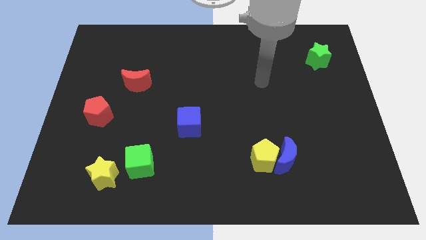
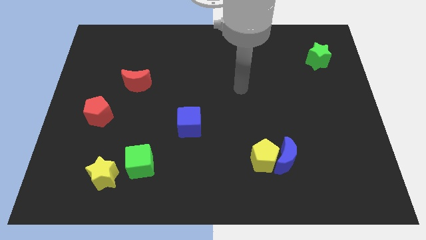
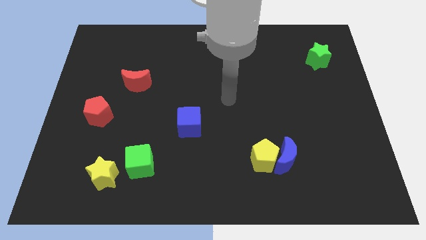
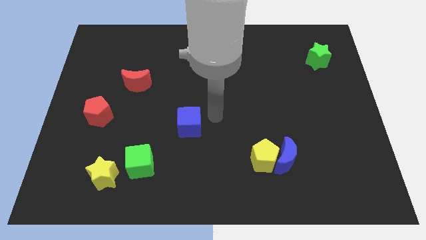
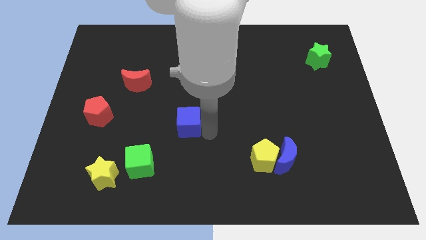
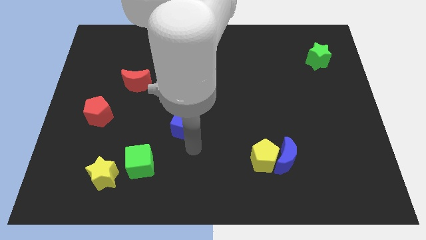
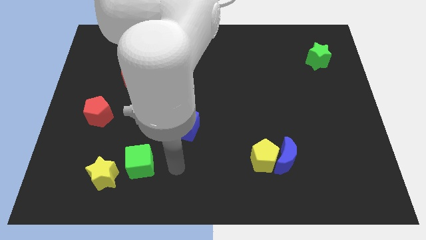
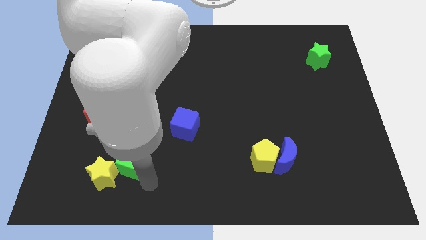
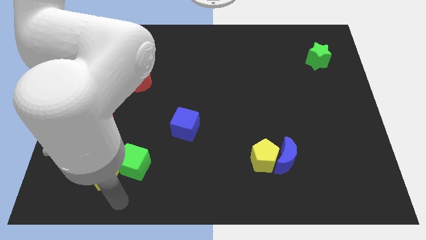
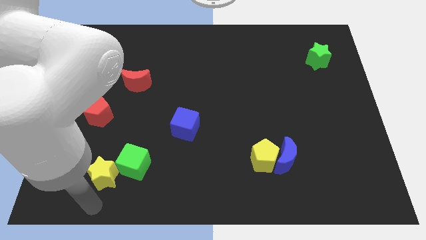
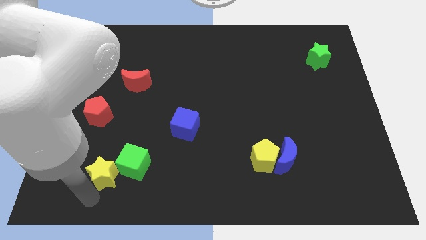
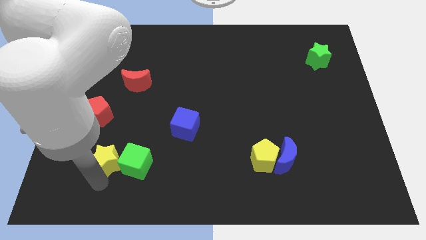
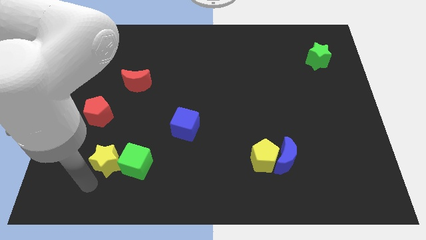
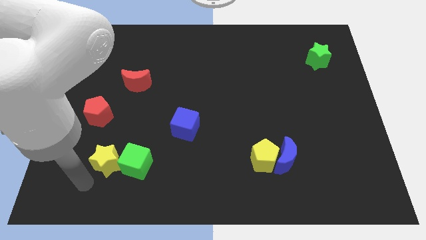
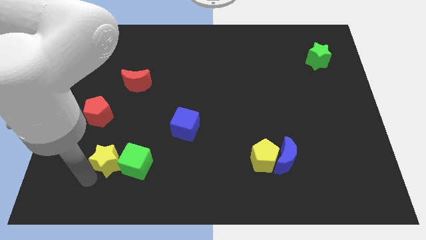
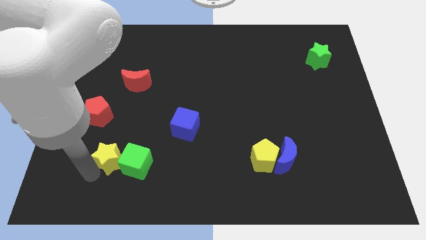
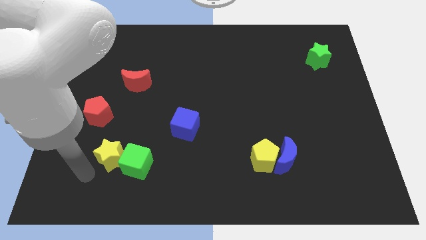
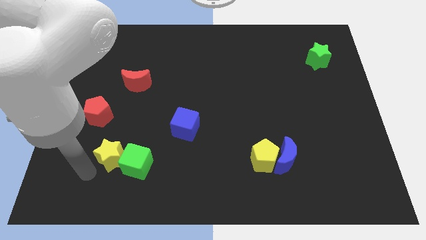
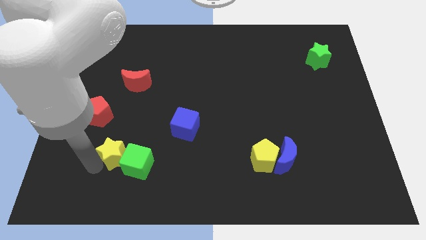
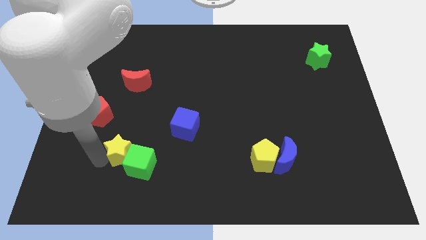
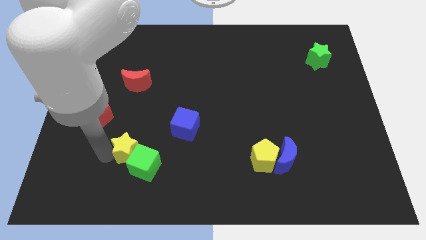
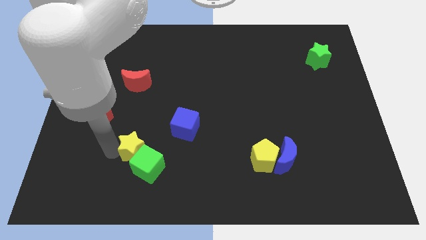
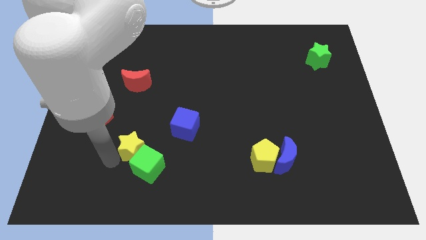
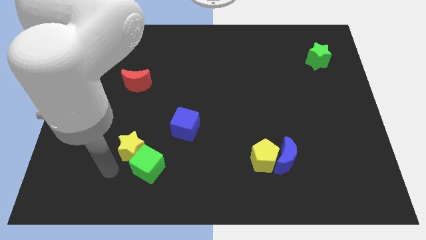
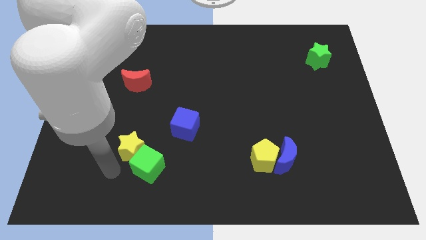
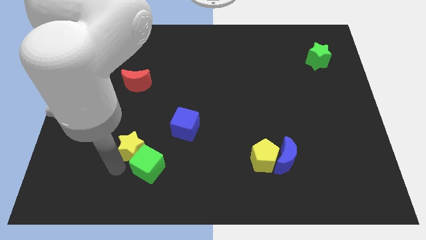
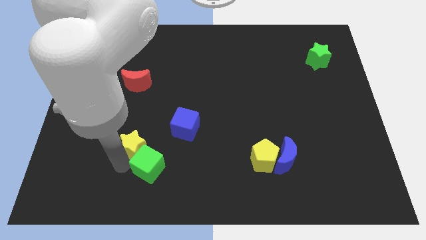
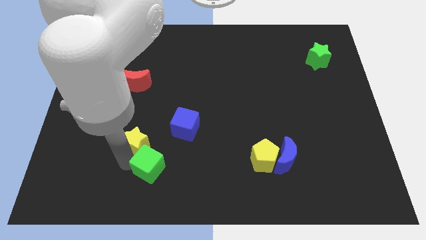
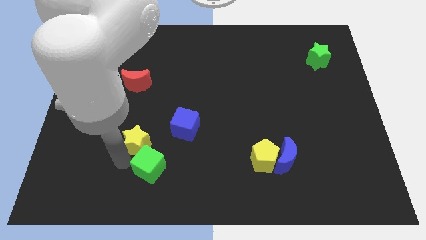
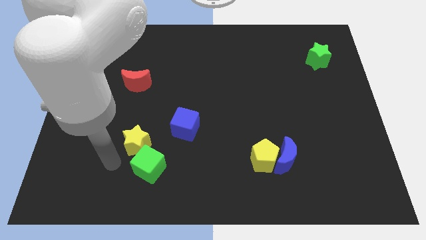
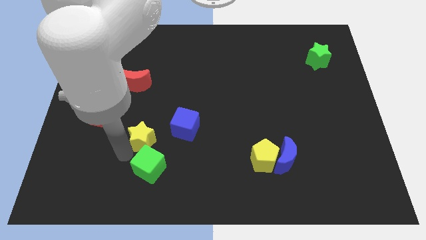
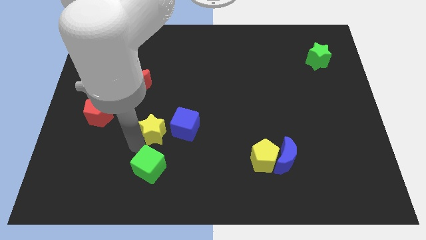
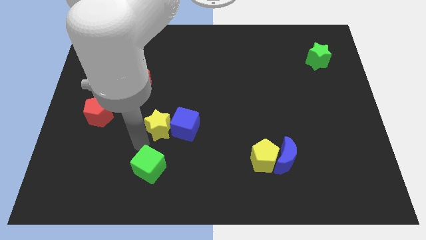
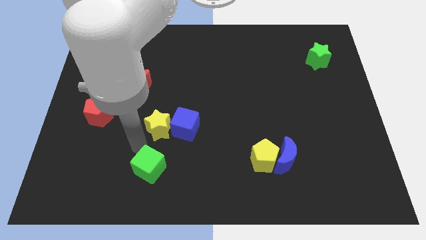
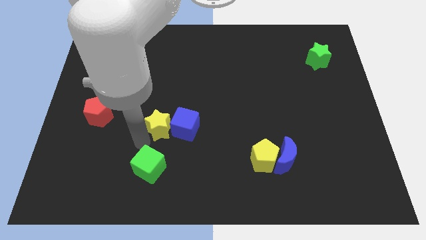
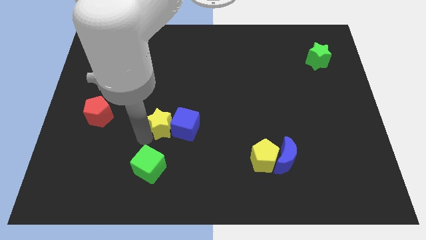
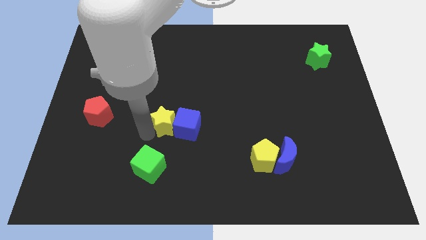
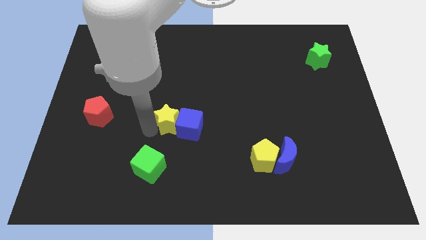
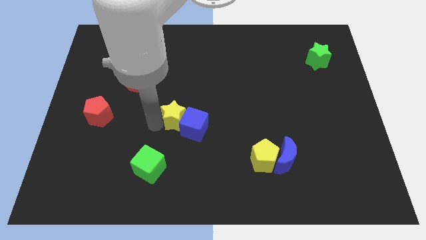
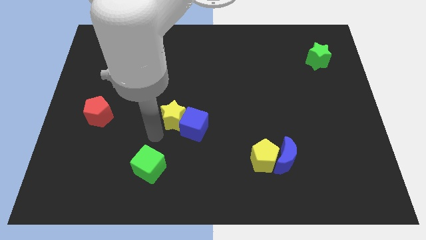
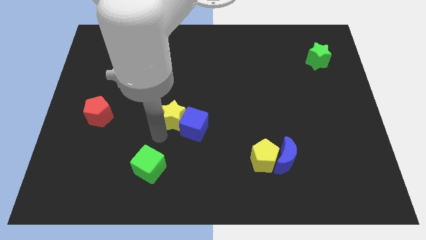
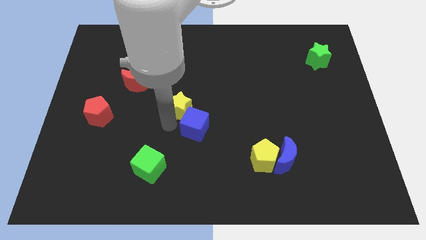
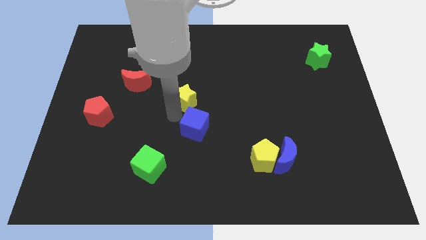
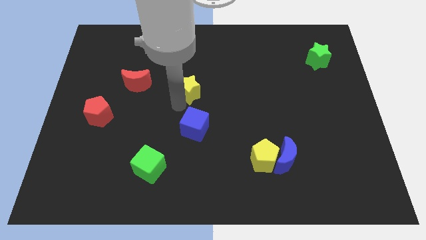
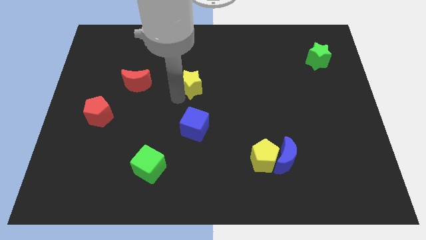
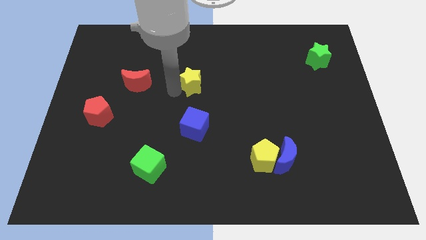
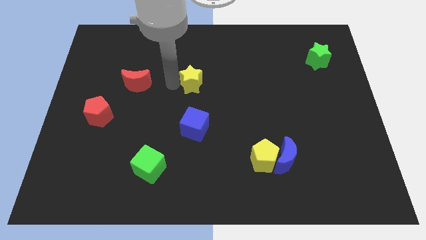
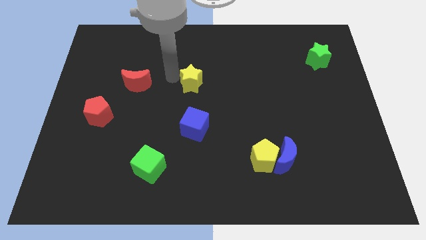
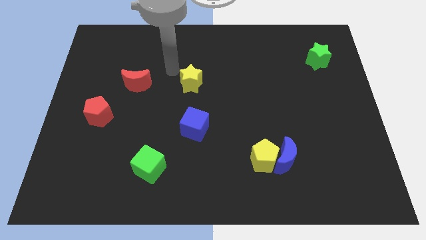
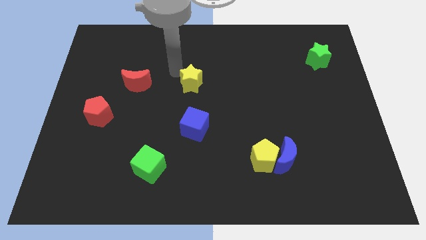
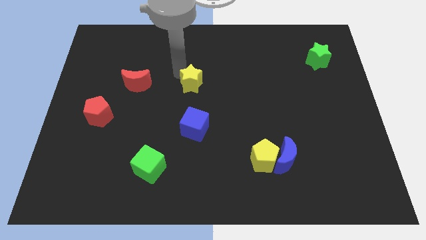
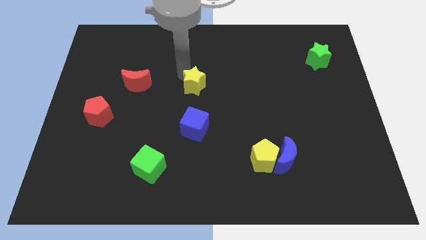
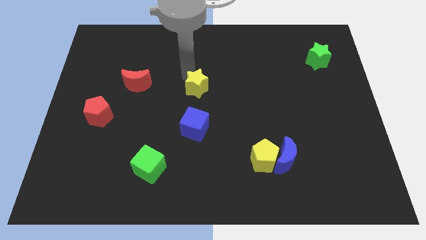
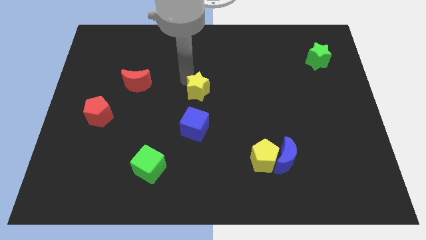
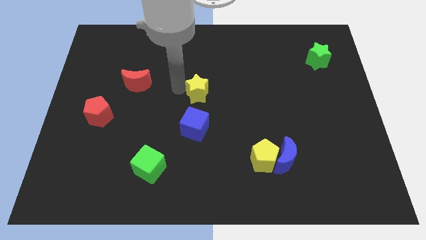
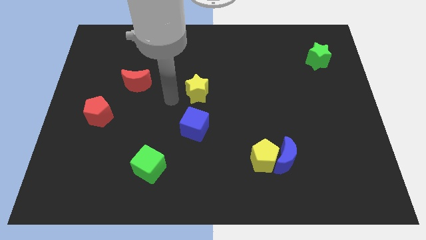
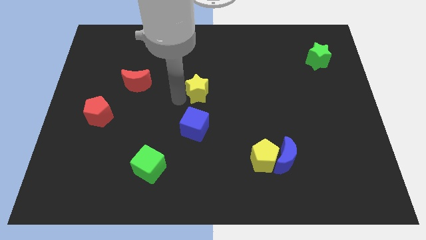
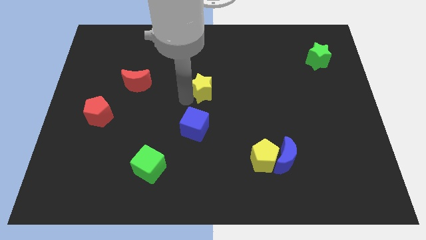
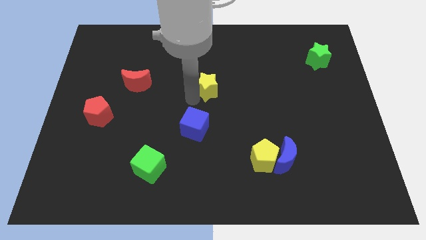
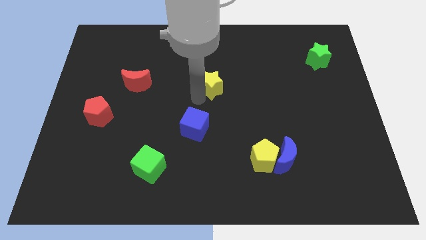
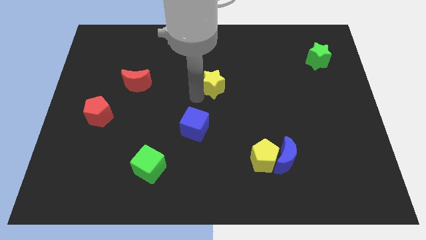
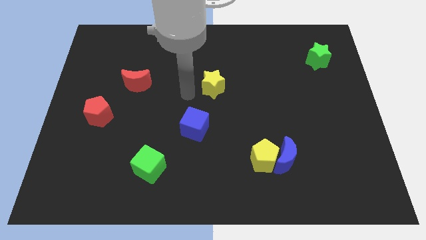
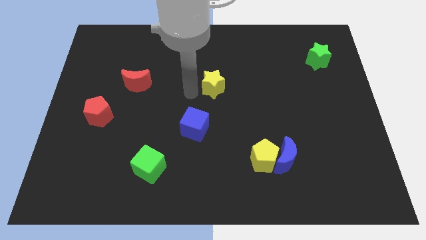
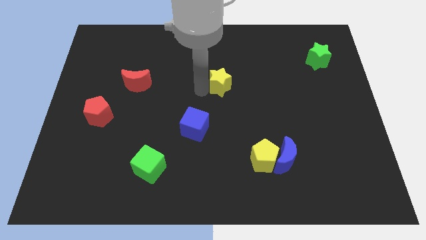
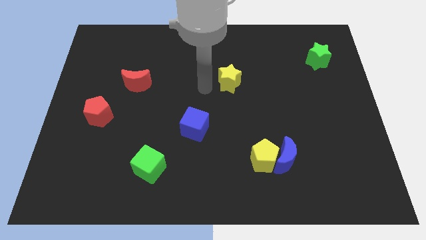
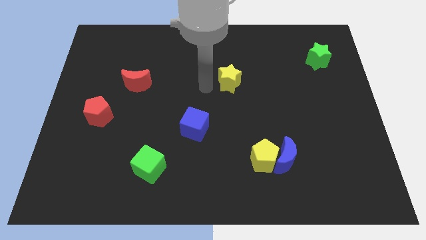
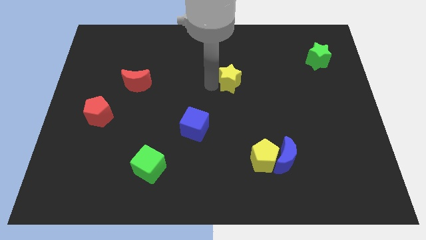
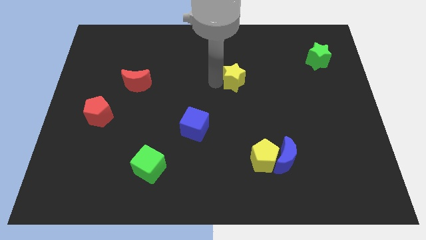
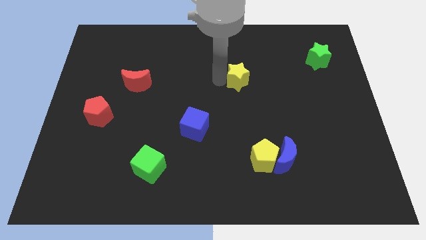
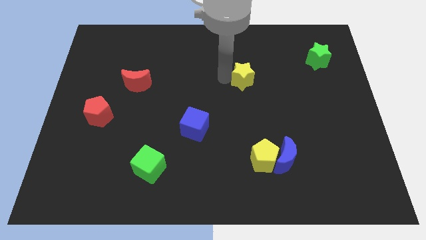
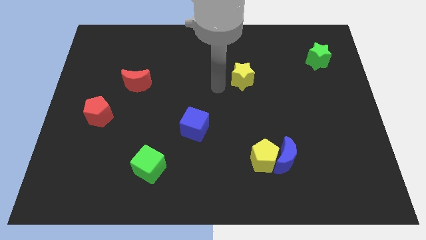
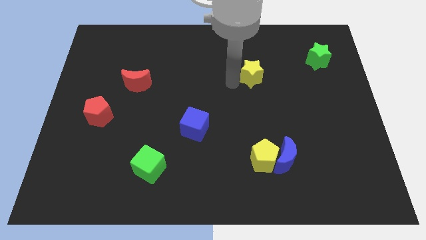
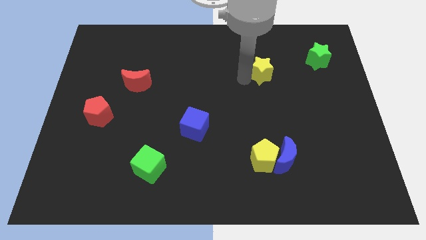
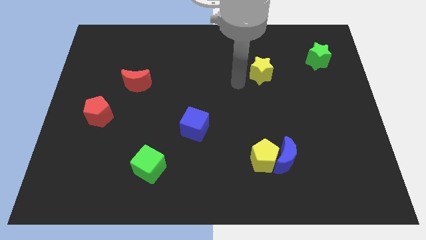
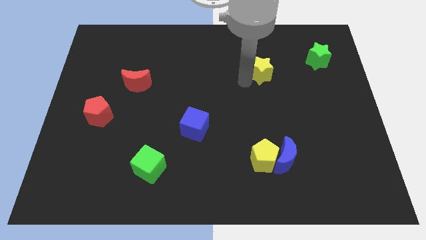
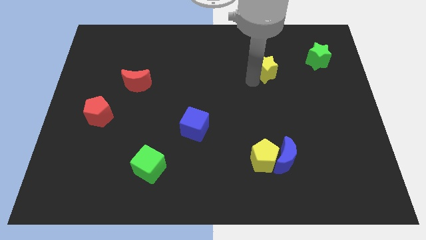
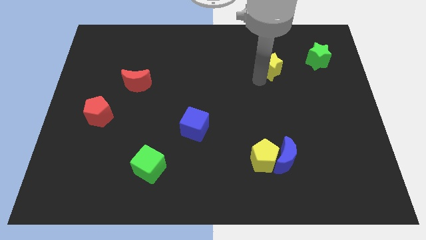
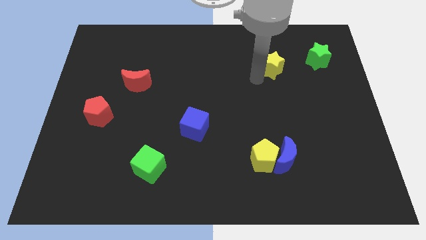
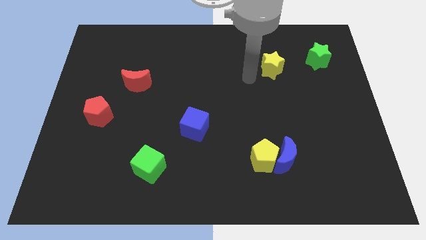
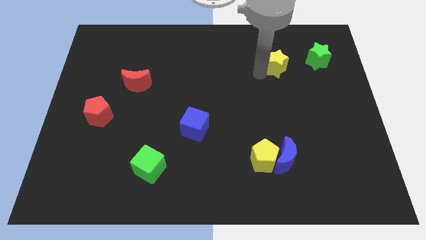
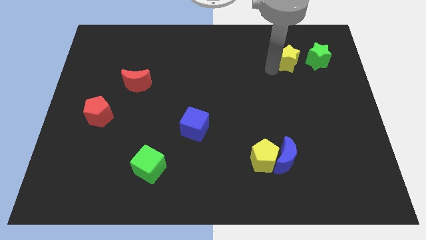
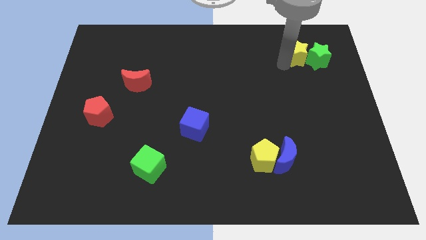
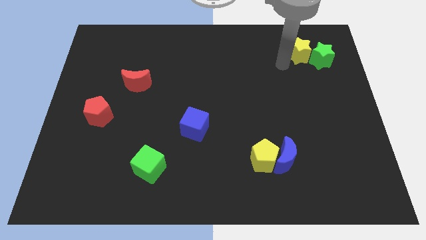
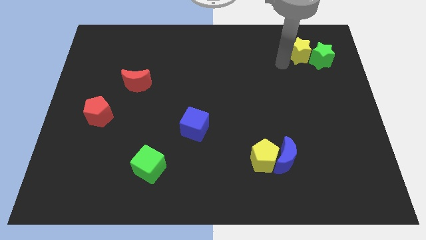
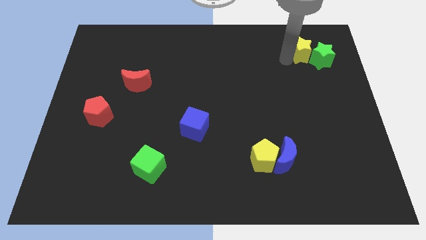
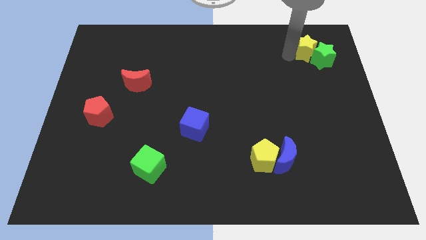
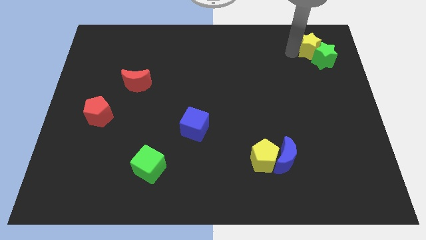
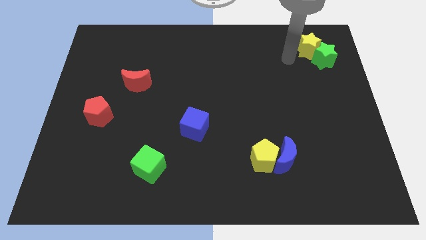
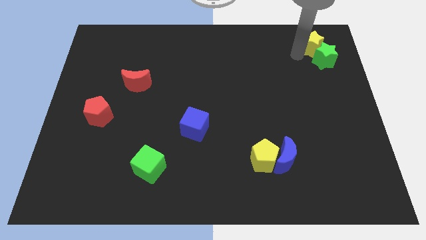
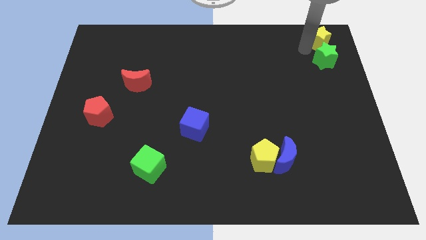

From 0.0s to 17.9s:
put the yellow star to the top right of the board
